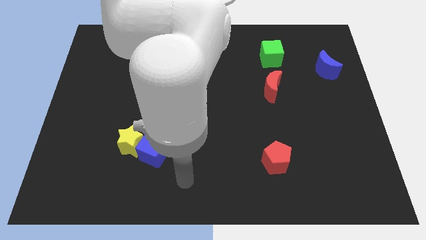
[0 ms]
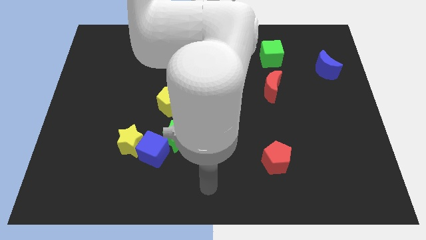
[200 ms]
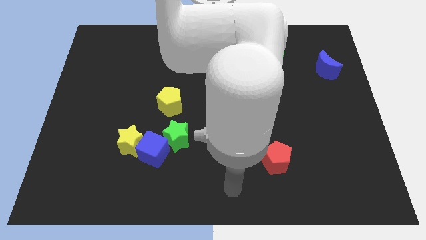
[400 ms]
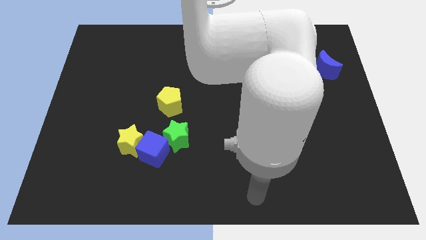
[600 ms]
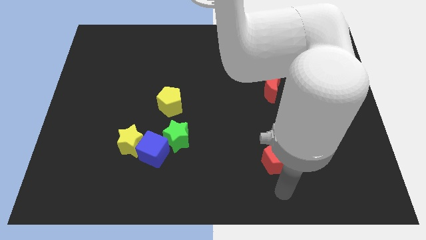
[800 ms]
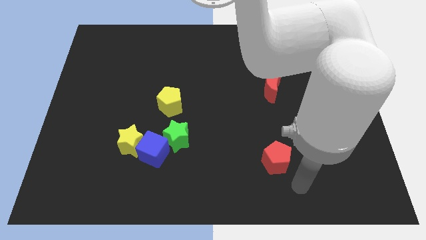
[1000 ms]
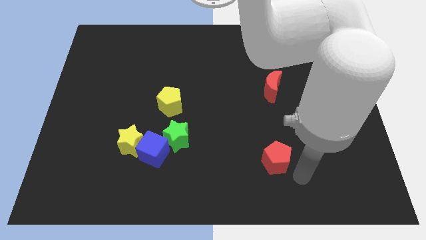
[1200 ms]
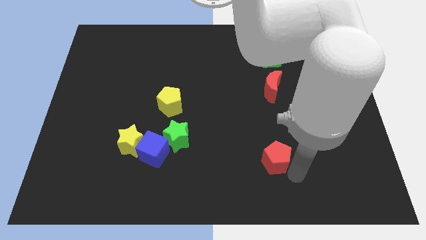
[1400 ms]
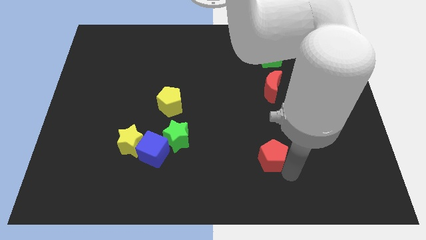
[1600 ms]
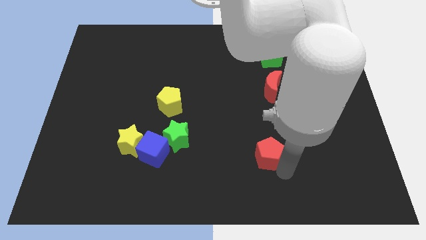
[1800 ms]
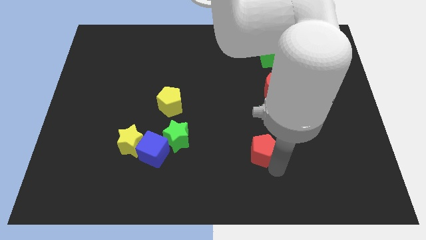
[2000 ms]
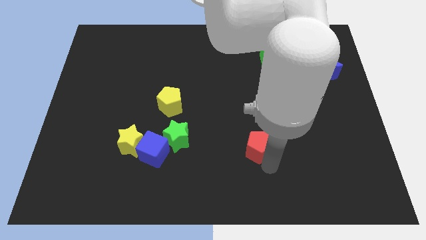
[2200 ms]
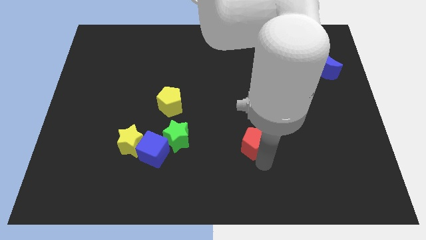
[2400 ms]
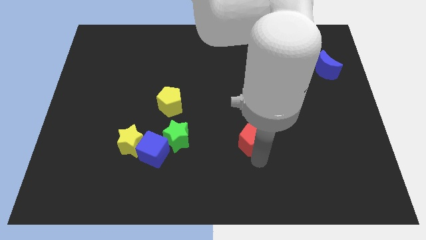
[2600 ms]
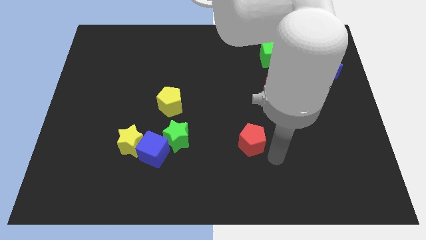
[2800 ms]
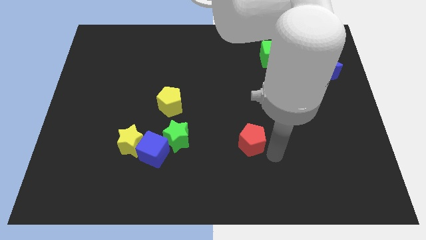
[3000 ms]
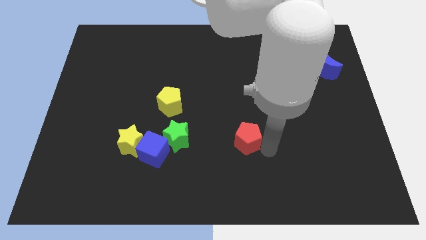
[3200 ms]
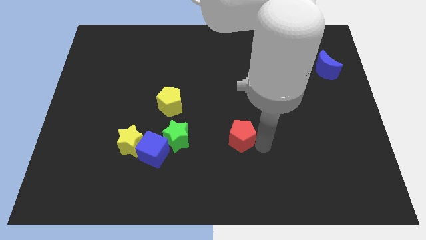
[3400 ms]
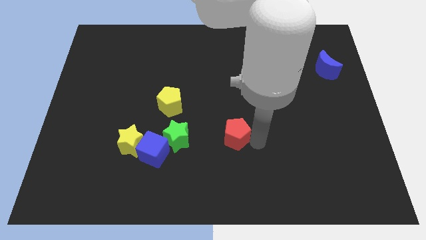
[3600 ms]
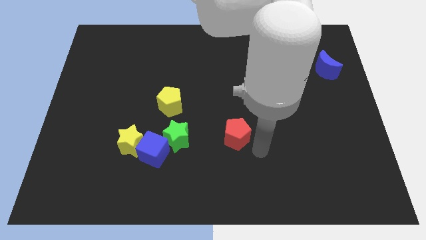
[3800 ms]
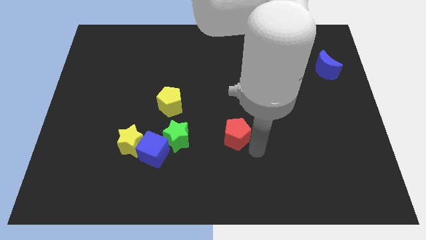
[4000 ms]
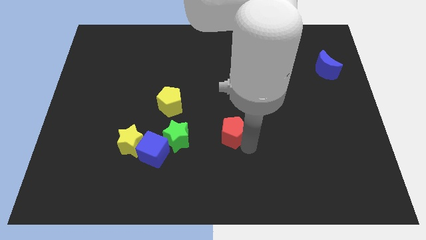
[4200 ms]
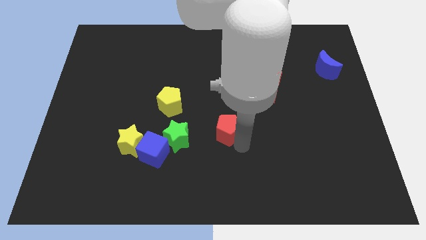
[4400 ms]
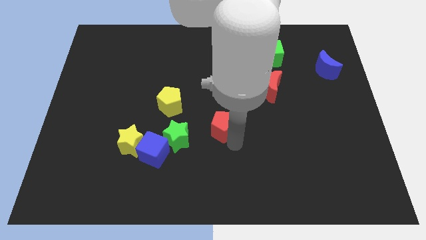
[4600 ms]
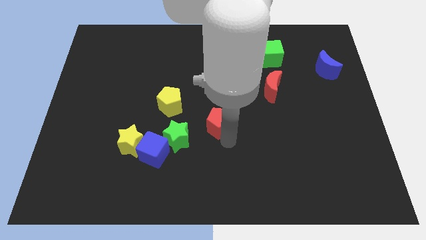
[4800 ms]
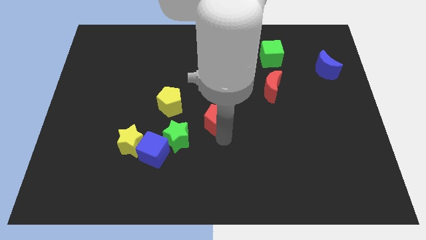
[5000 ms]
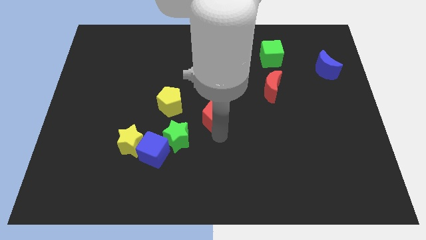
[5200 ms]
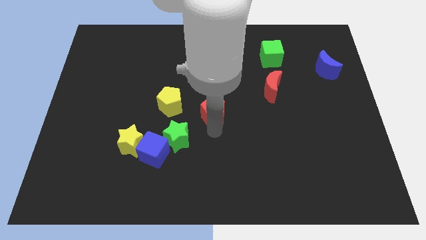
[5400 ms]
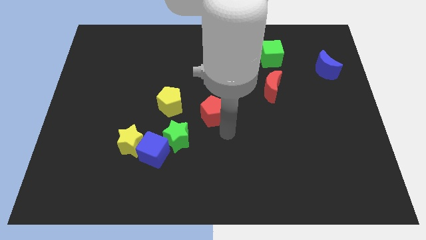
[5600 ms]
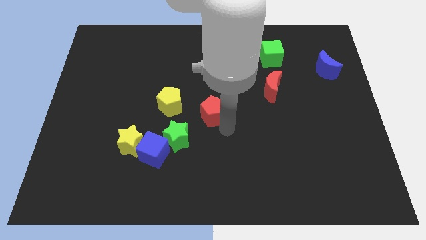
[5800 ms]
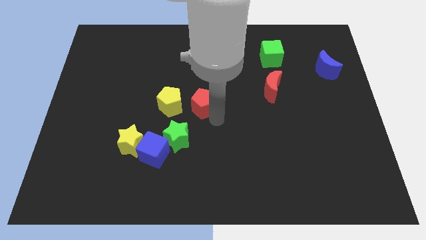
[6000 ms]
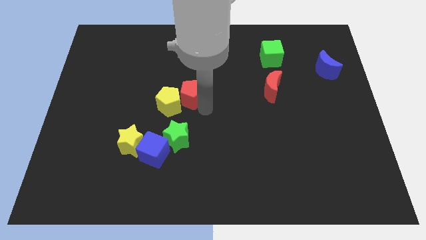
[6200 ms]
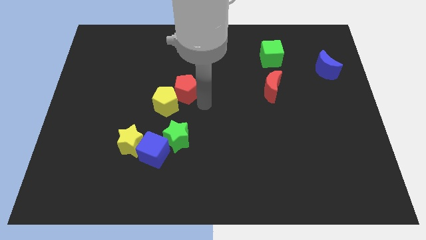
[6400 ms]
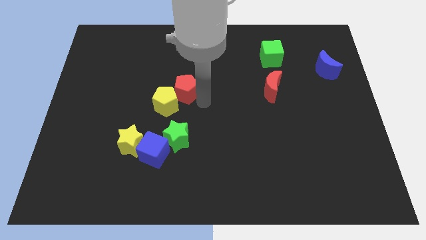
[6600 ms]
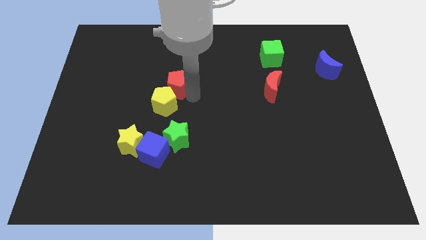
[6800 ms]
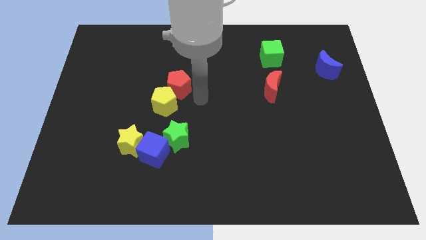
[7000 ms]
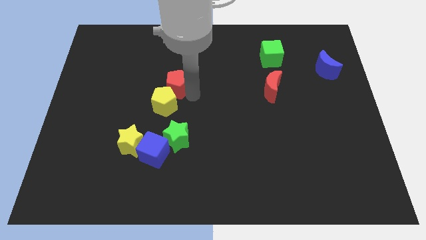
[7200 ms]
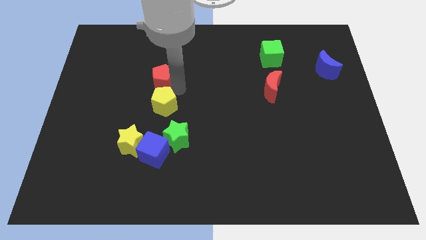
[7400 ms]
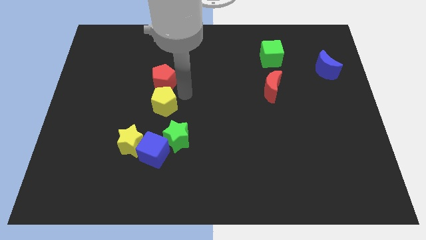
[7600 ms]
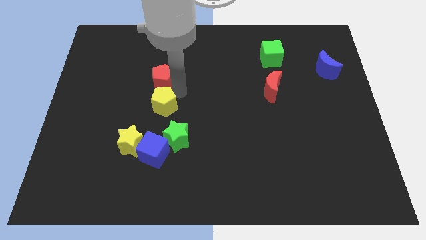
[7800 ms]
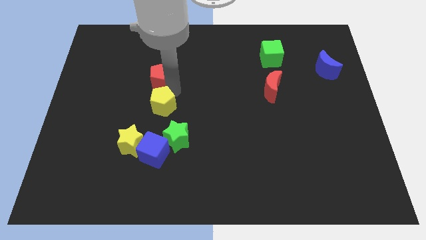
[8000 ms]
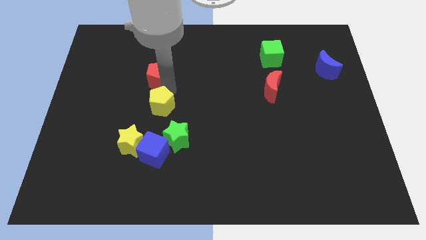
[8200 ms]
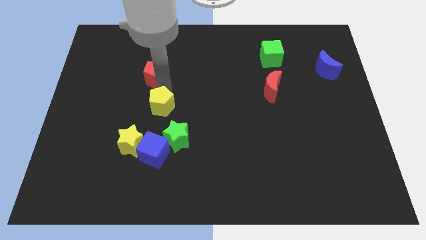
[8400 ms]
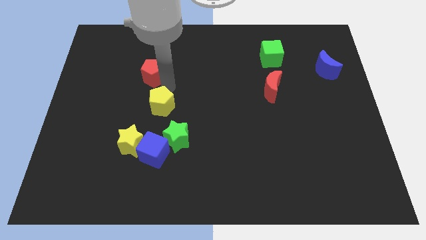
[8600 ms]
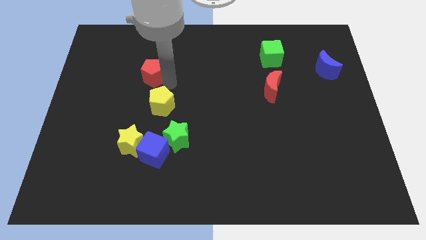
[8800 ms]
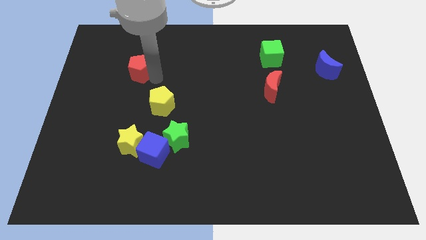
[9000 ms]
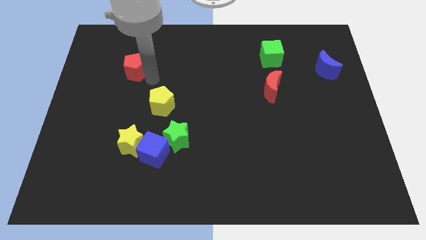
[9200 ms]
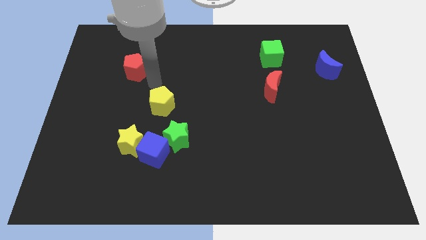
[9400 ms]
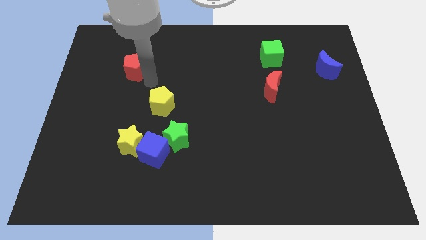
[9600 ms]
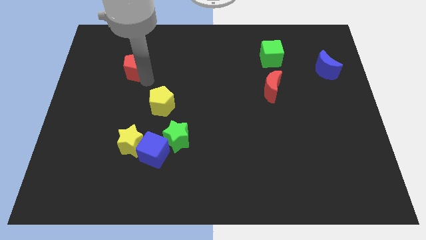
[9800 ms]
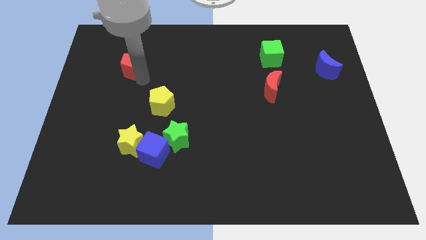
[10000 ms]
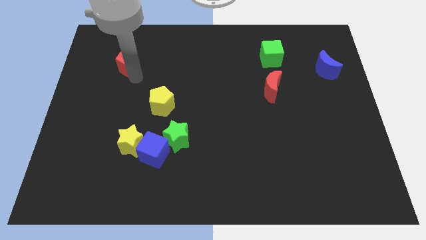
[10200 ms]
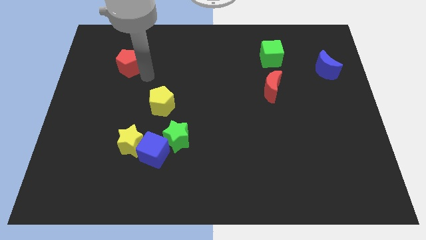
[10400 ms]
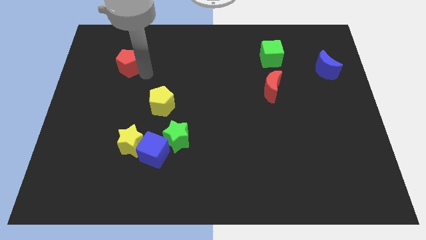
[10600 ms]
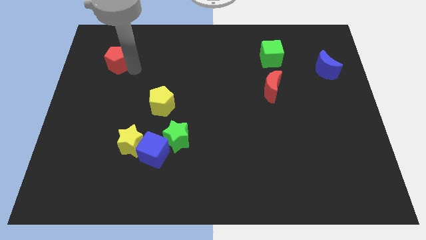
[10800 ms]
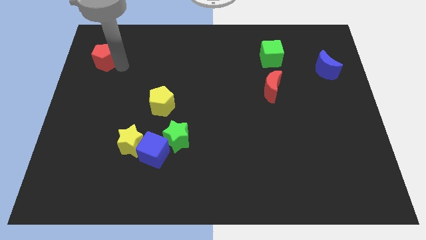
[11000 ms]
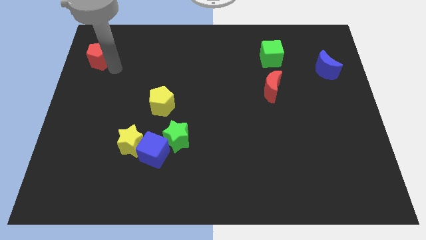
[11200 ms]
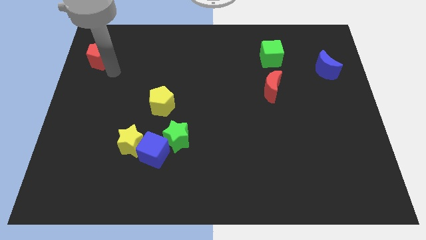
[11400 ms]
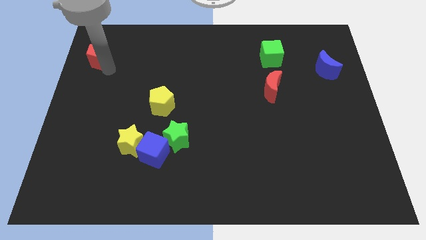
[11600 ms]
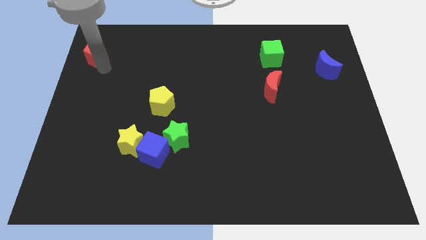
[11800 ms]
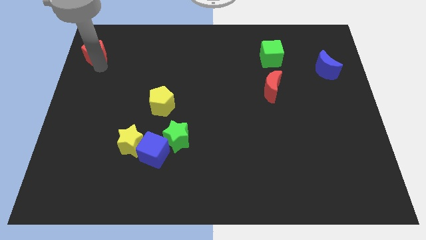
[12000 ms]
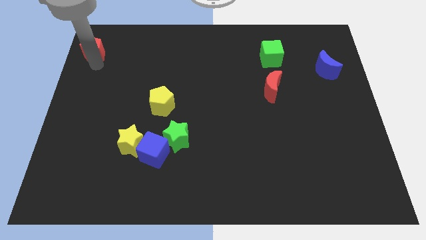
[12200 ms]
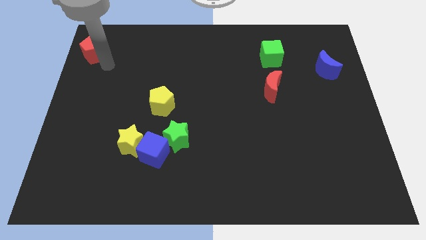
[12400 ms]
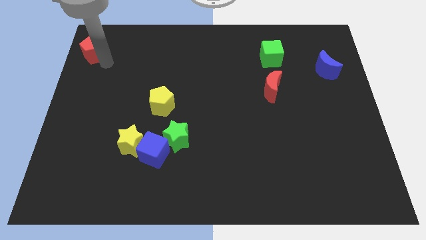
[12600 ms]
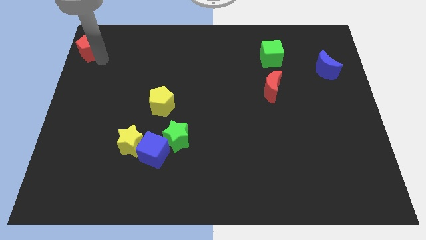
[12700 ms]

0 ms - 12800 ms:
push the red pentagon to the top left corner
